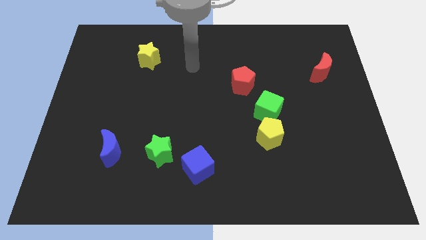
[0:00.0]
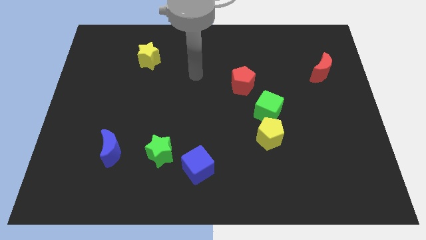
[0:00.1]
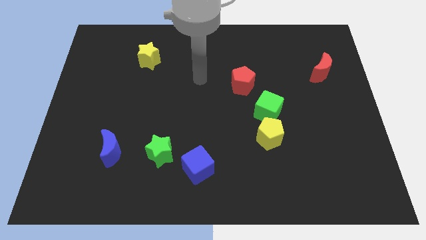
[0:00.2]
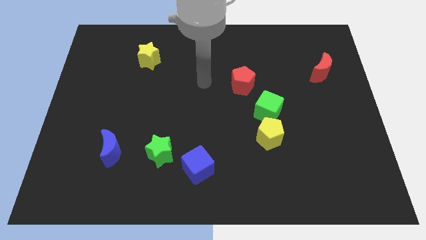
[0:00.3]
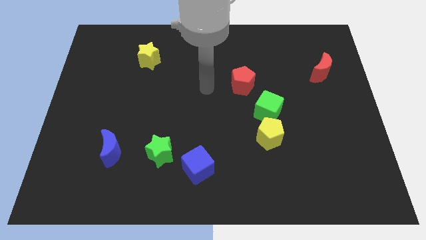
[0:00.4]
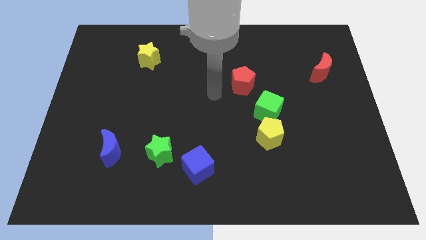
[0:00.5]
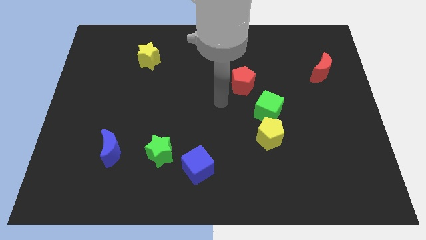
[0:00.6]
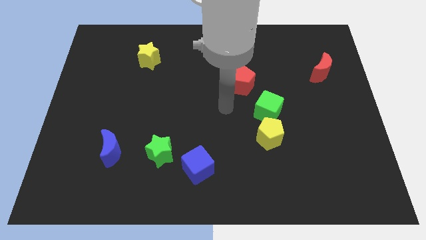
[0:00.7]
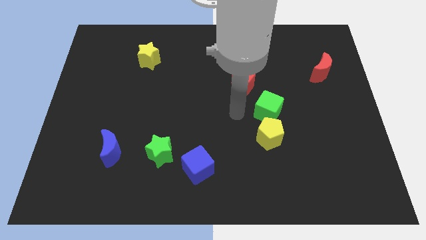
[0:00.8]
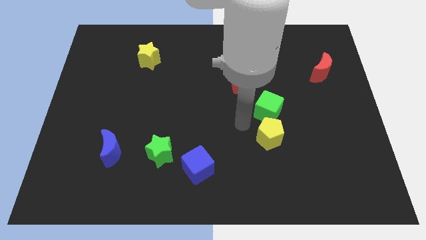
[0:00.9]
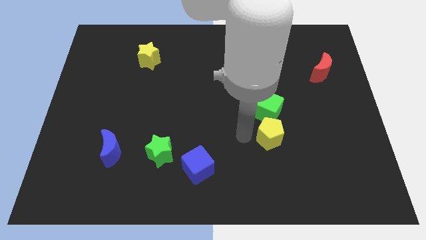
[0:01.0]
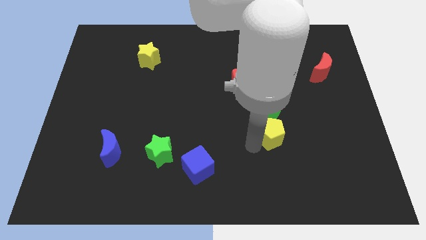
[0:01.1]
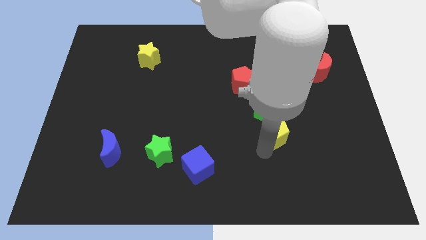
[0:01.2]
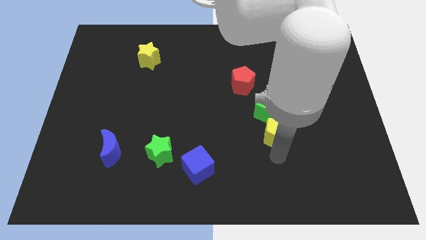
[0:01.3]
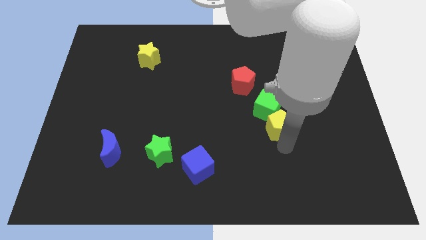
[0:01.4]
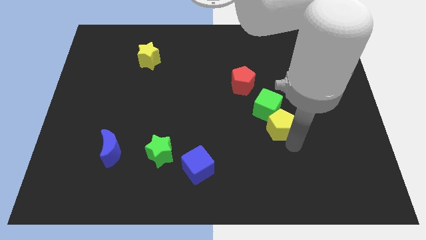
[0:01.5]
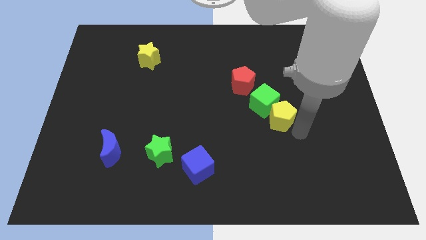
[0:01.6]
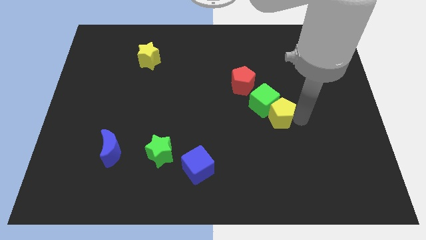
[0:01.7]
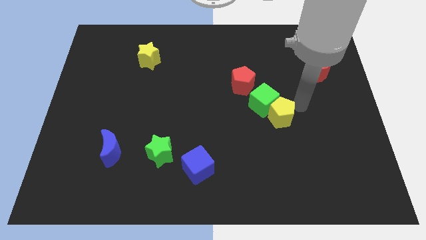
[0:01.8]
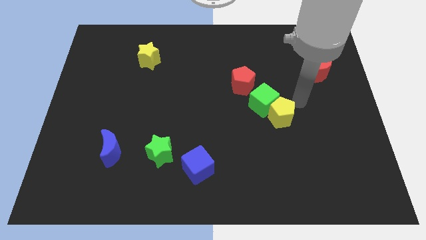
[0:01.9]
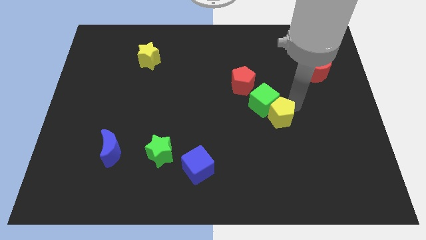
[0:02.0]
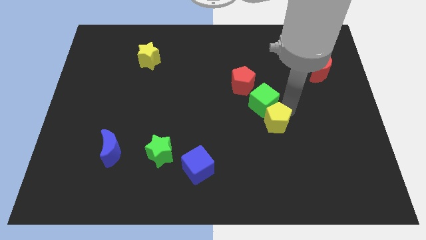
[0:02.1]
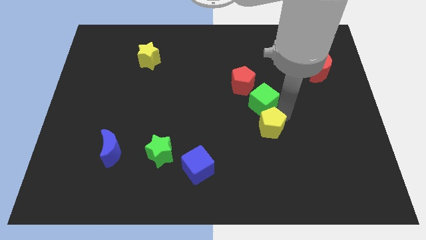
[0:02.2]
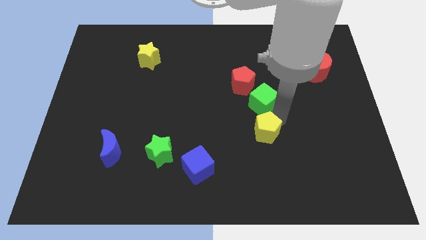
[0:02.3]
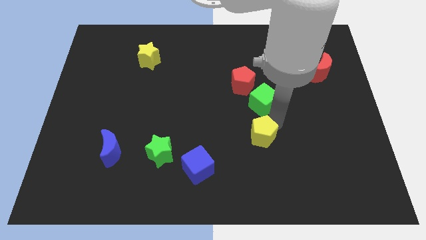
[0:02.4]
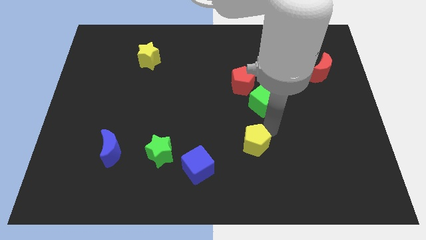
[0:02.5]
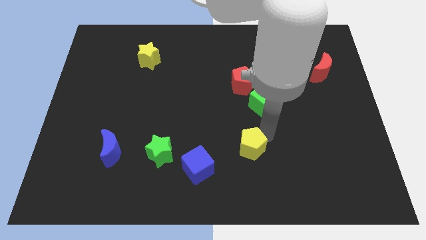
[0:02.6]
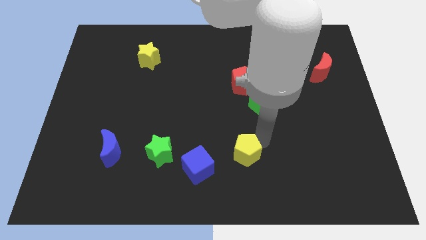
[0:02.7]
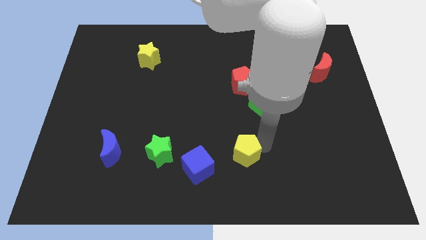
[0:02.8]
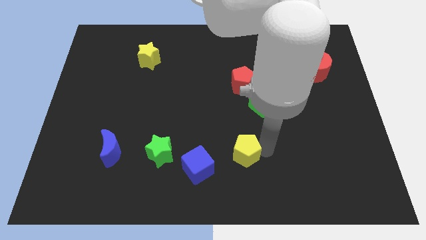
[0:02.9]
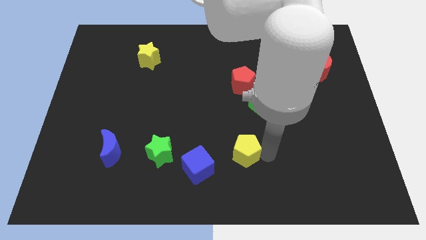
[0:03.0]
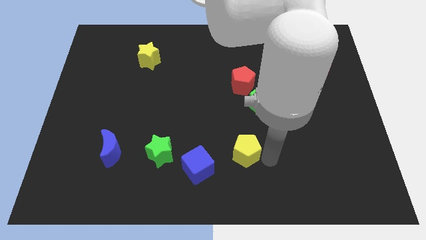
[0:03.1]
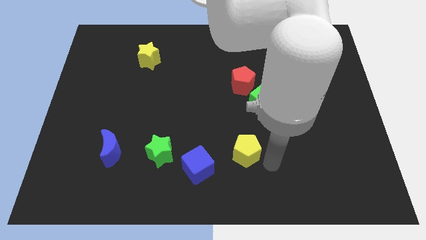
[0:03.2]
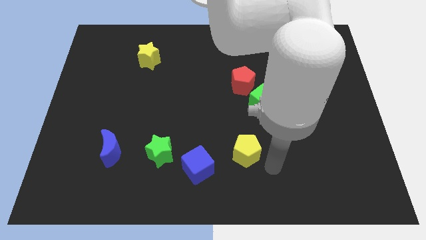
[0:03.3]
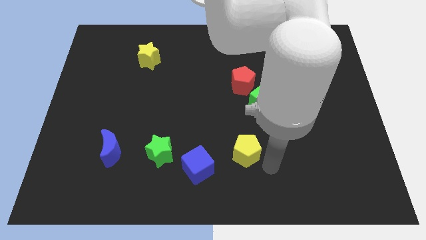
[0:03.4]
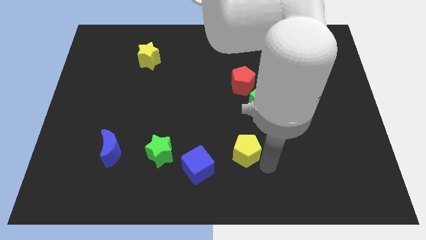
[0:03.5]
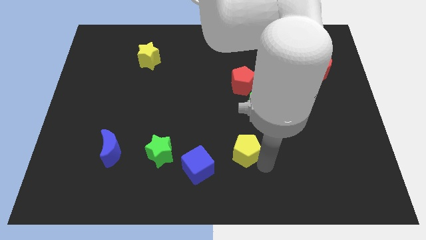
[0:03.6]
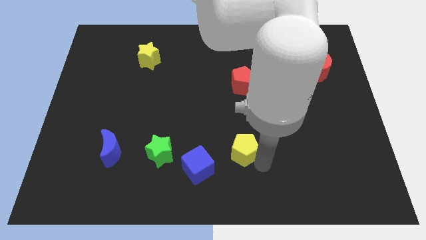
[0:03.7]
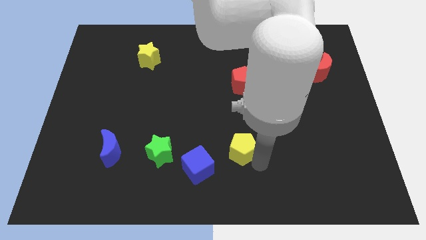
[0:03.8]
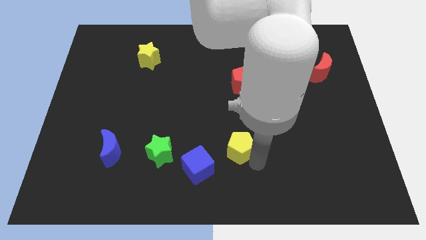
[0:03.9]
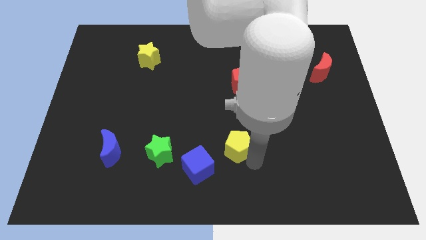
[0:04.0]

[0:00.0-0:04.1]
slightly push the yellow pentagon to the left

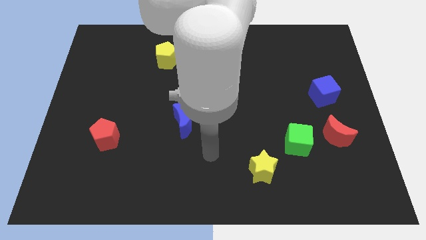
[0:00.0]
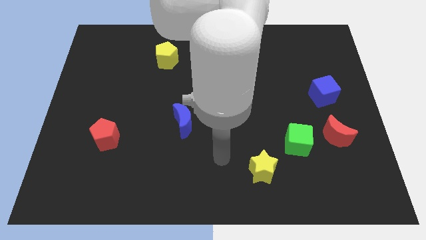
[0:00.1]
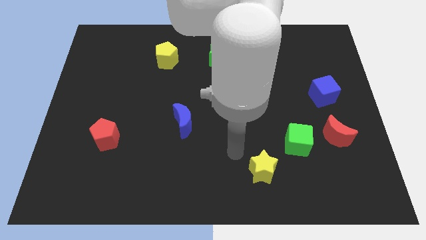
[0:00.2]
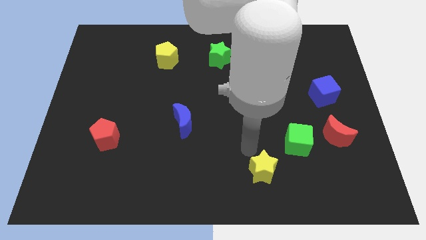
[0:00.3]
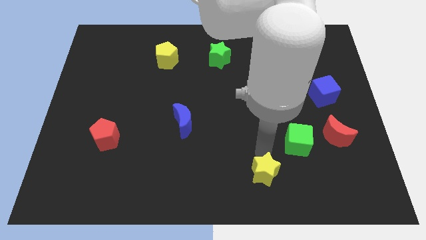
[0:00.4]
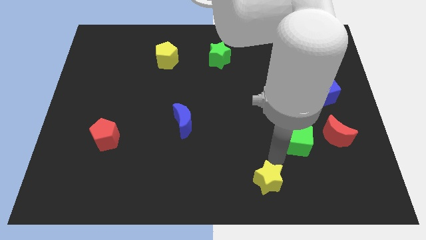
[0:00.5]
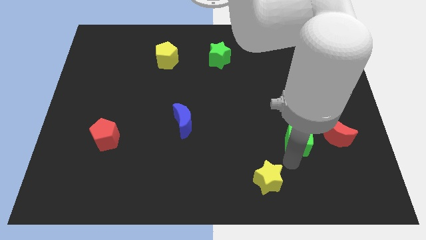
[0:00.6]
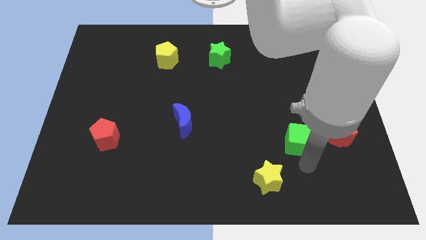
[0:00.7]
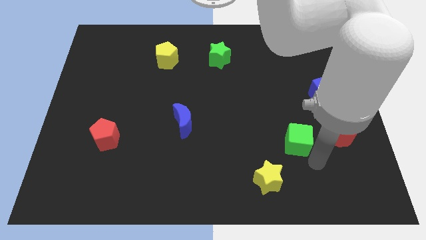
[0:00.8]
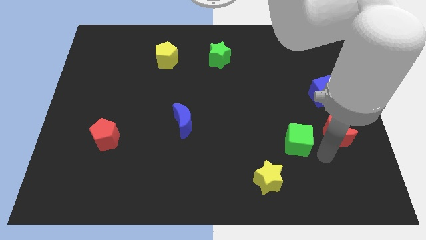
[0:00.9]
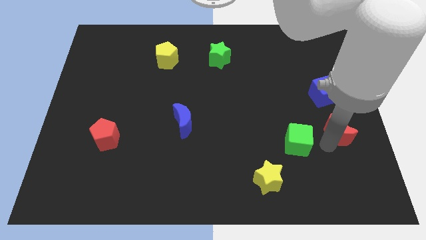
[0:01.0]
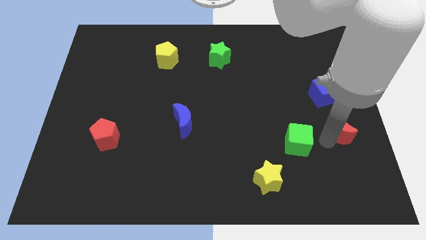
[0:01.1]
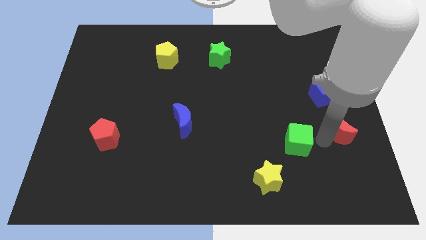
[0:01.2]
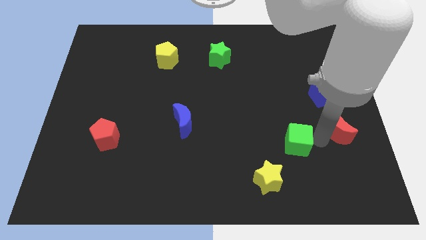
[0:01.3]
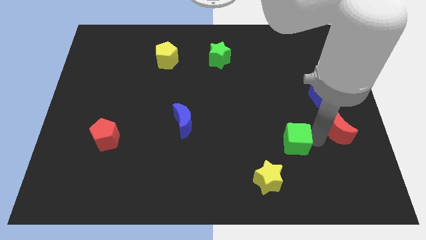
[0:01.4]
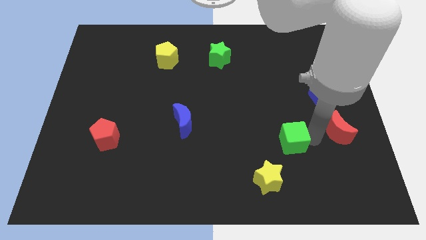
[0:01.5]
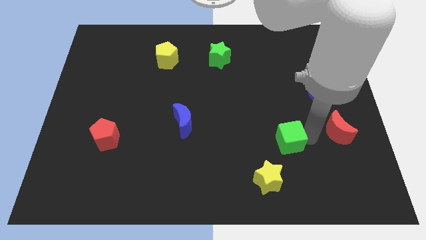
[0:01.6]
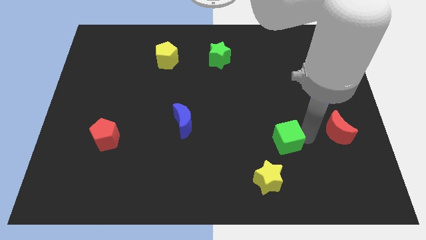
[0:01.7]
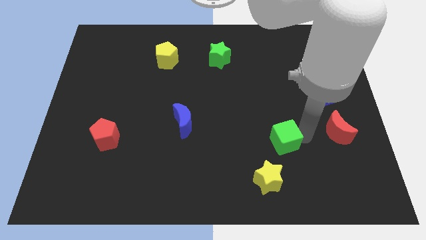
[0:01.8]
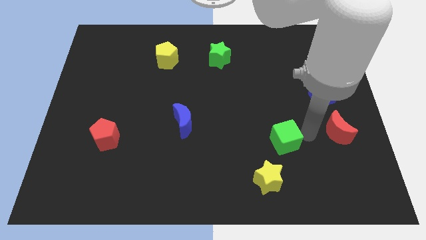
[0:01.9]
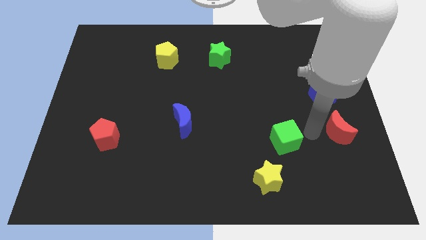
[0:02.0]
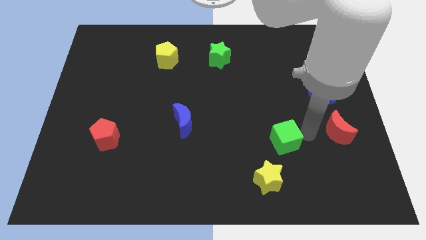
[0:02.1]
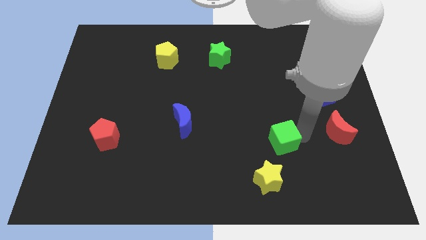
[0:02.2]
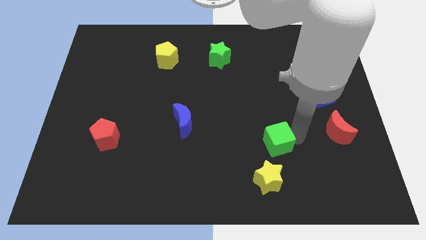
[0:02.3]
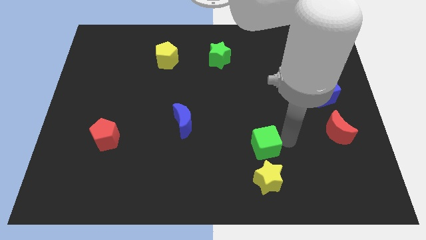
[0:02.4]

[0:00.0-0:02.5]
push the green cube a bit to the left

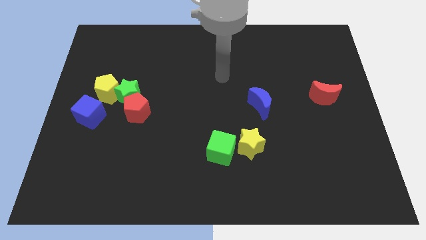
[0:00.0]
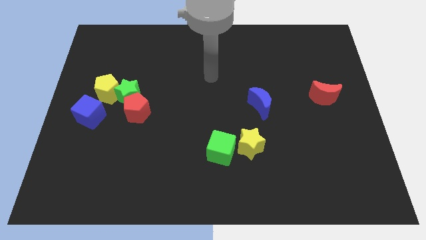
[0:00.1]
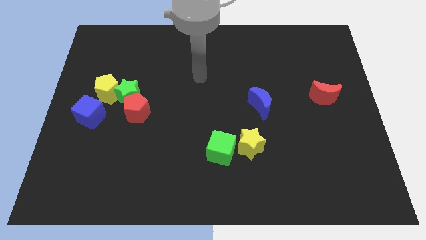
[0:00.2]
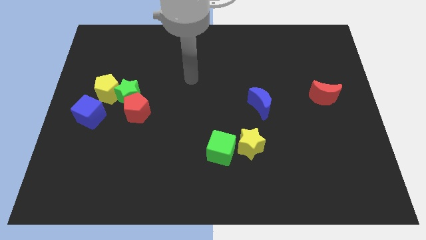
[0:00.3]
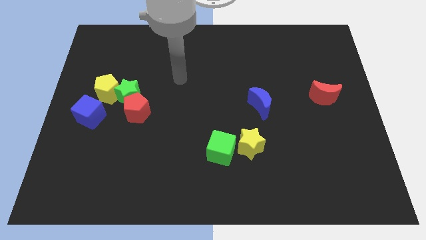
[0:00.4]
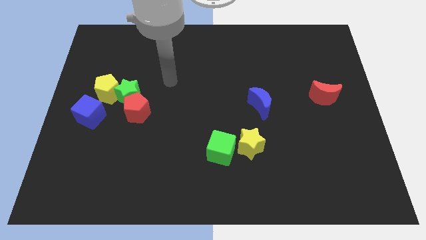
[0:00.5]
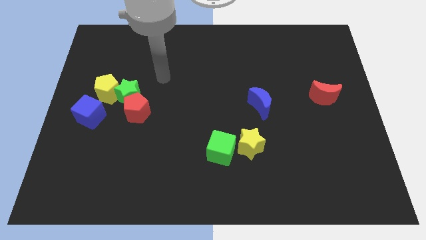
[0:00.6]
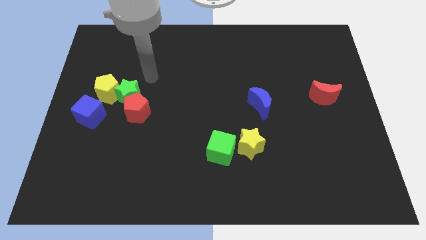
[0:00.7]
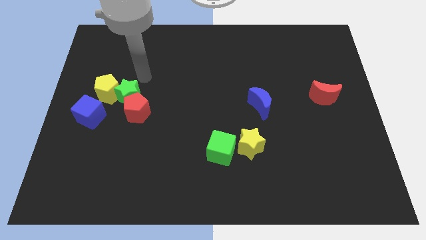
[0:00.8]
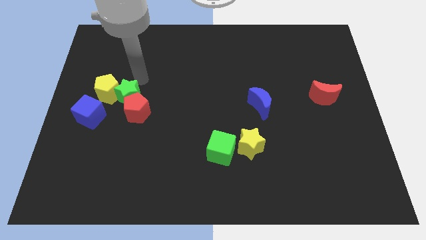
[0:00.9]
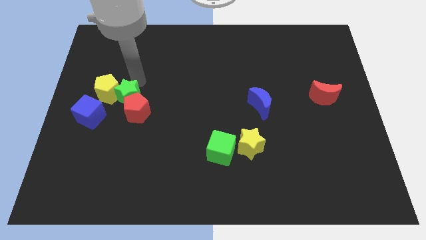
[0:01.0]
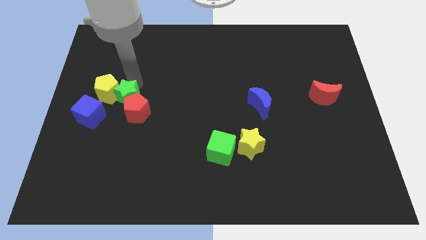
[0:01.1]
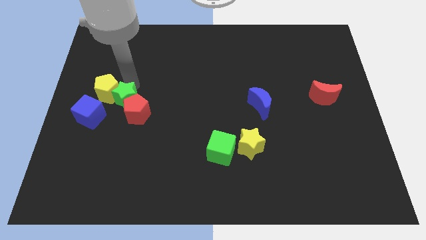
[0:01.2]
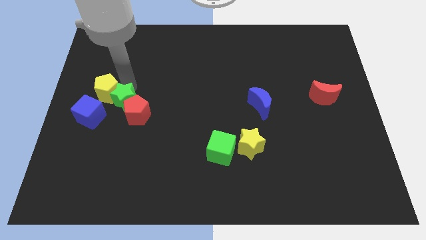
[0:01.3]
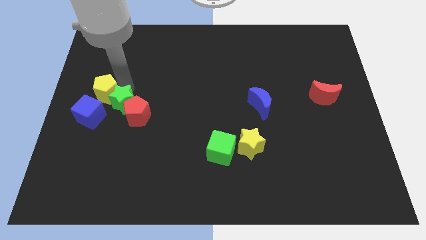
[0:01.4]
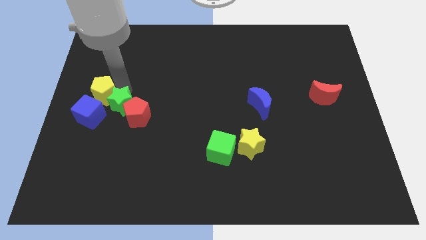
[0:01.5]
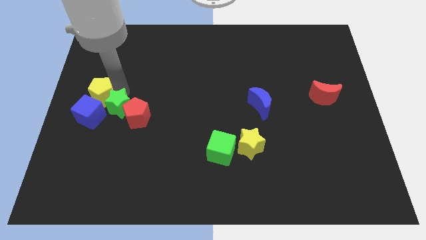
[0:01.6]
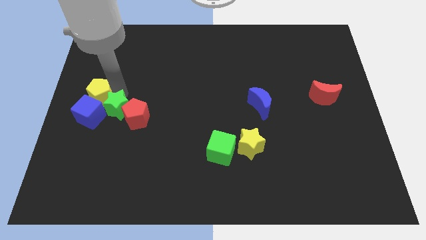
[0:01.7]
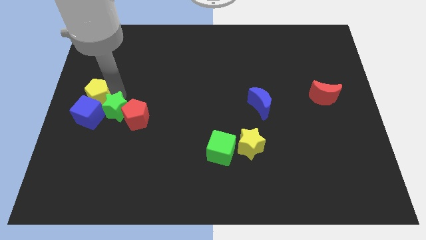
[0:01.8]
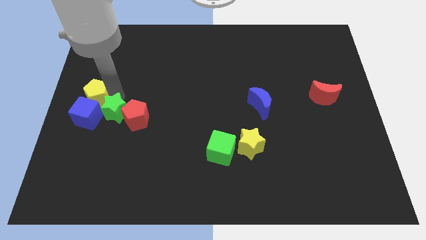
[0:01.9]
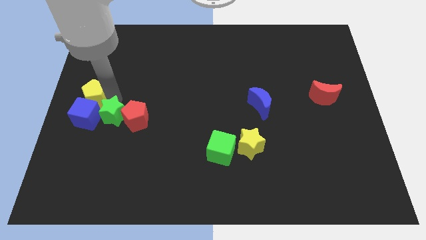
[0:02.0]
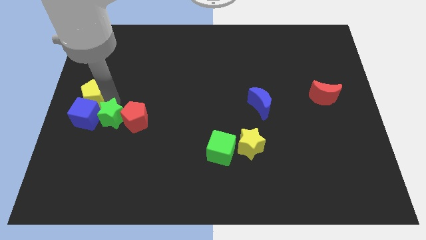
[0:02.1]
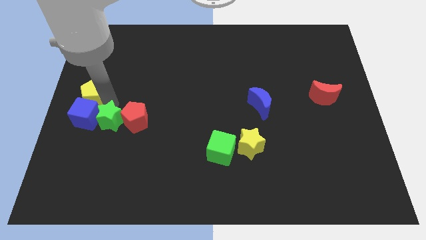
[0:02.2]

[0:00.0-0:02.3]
slightly push the green star downwards
